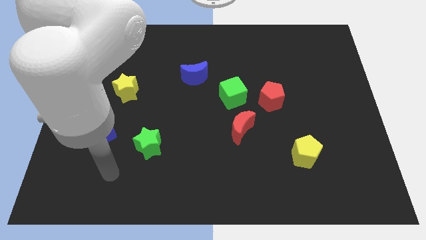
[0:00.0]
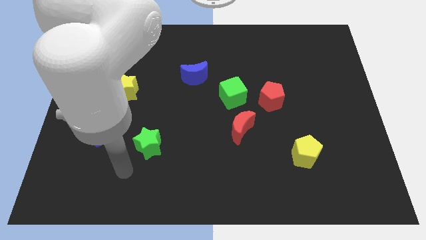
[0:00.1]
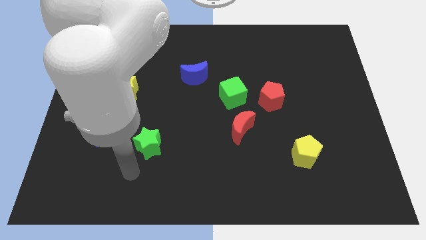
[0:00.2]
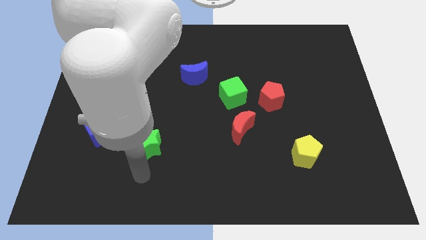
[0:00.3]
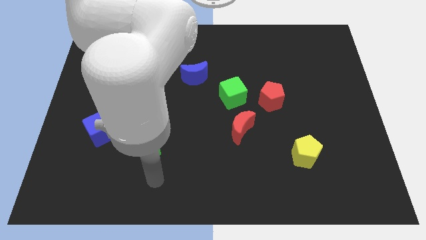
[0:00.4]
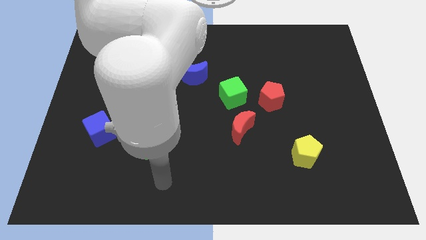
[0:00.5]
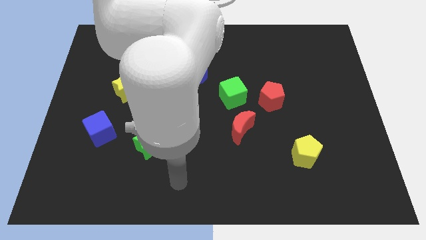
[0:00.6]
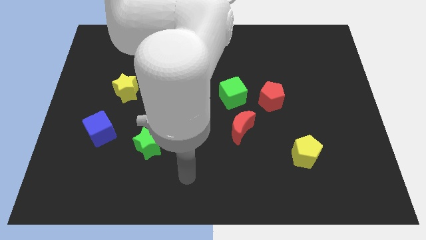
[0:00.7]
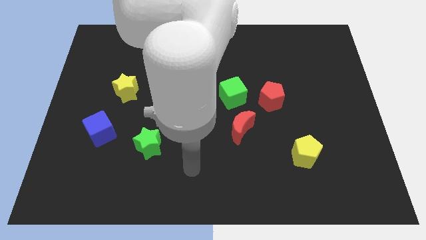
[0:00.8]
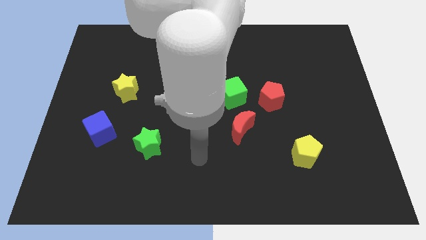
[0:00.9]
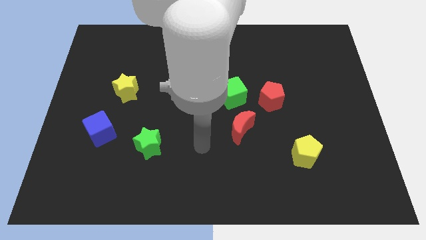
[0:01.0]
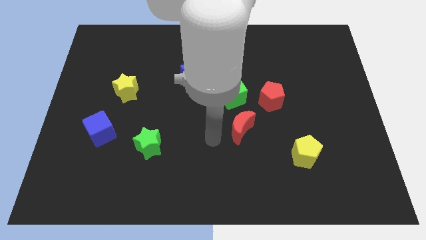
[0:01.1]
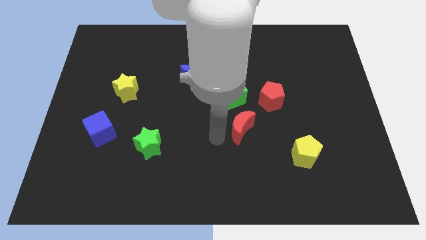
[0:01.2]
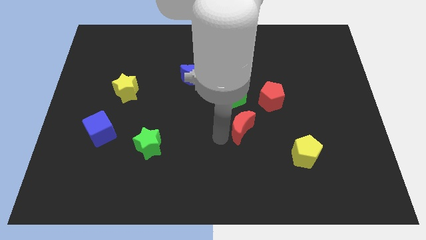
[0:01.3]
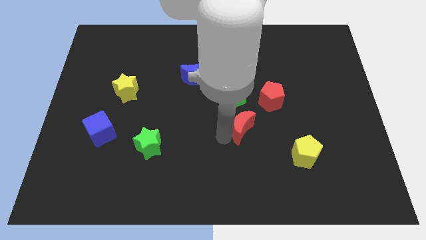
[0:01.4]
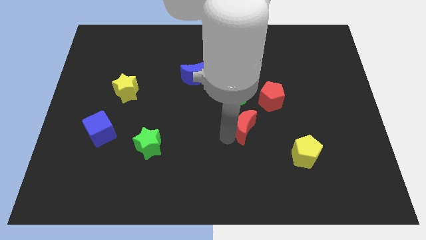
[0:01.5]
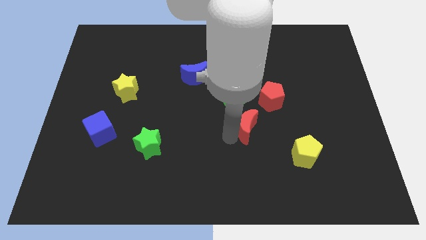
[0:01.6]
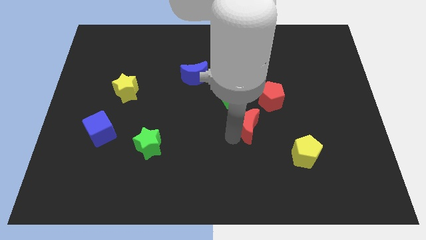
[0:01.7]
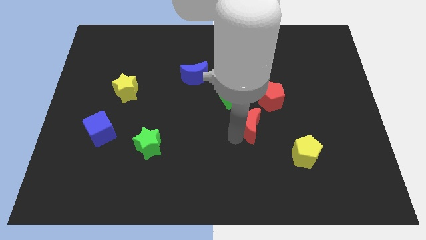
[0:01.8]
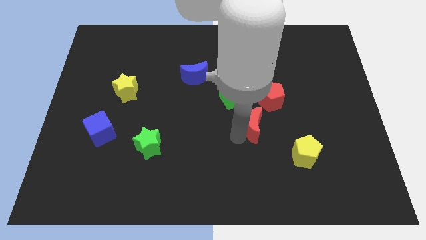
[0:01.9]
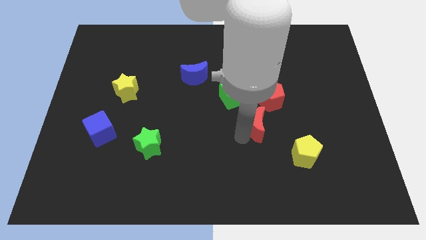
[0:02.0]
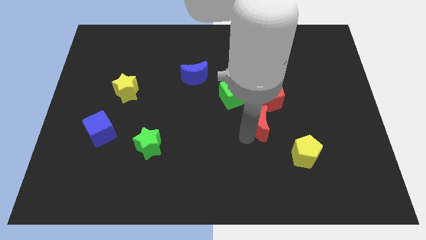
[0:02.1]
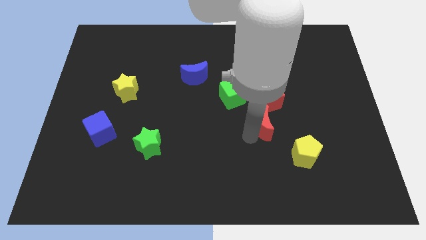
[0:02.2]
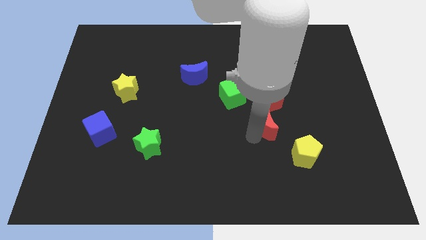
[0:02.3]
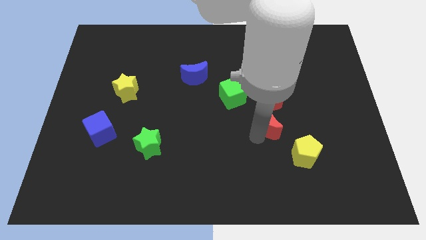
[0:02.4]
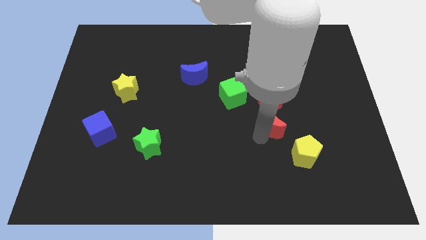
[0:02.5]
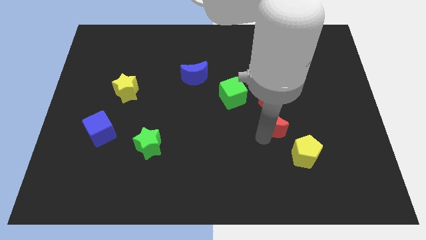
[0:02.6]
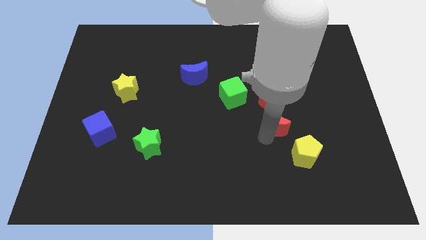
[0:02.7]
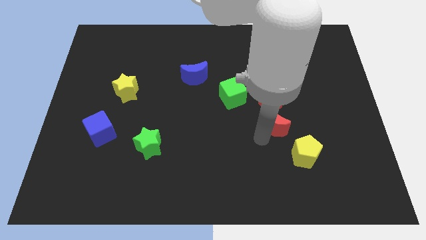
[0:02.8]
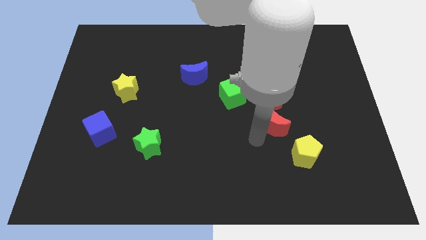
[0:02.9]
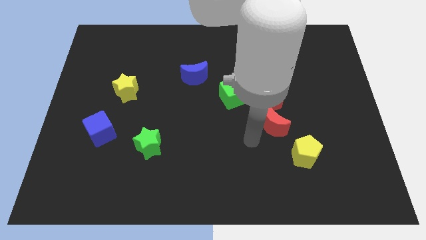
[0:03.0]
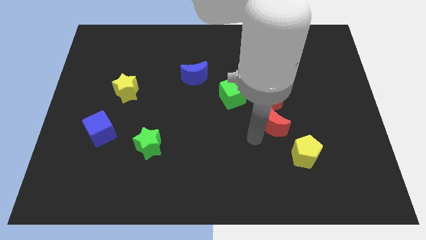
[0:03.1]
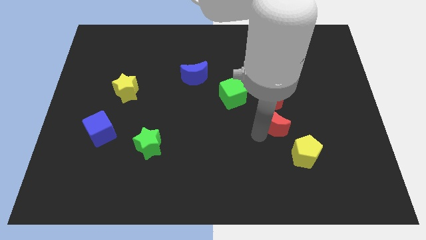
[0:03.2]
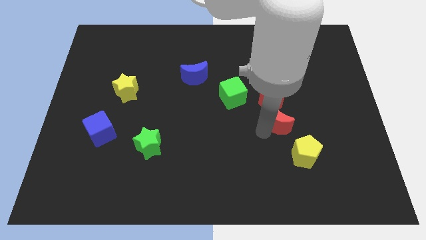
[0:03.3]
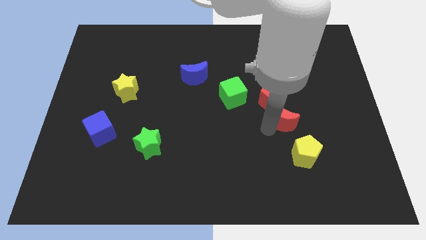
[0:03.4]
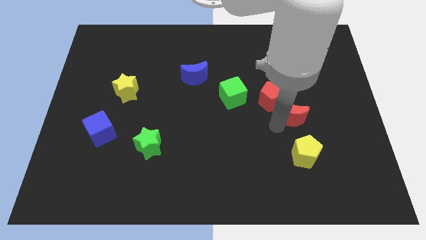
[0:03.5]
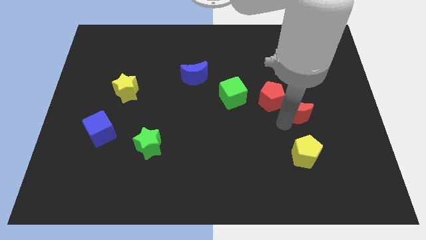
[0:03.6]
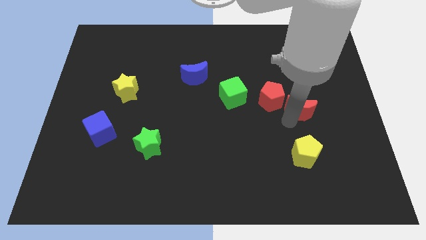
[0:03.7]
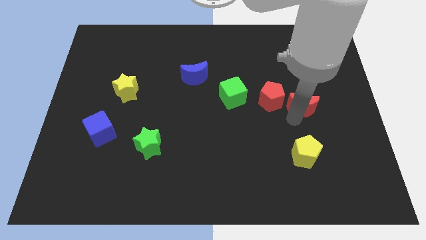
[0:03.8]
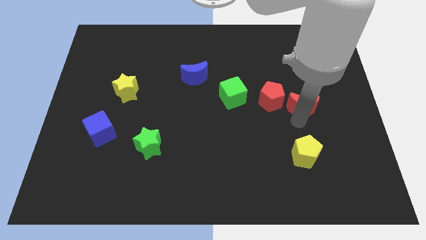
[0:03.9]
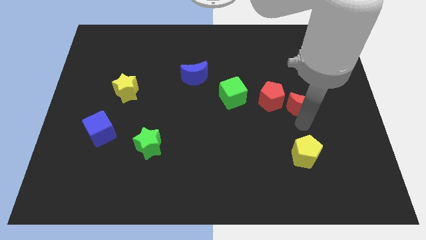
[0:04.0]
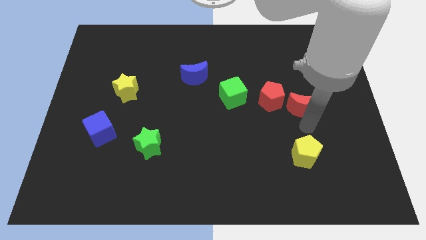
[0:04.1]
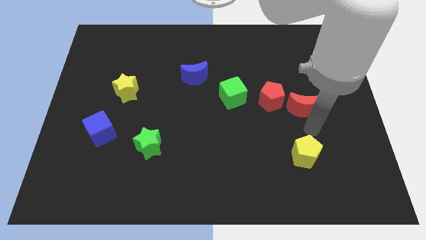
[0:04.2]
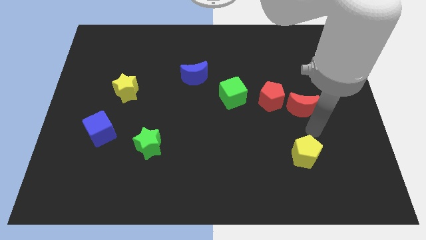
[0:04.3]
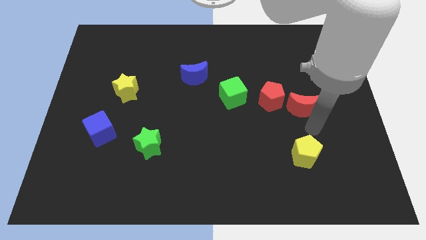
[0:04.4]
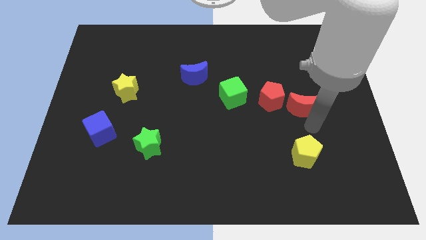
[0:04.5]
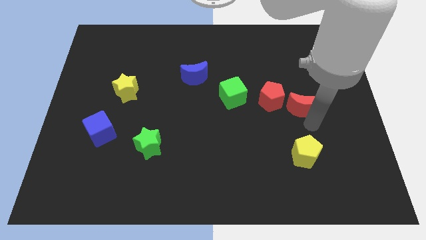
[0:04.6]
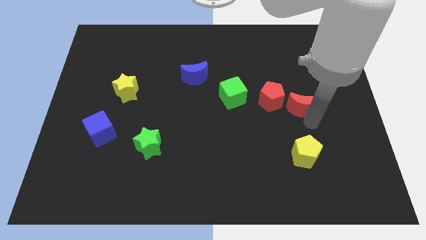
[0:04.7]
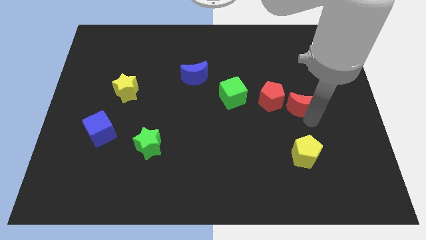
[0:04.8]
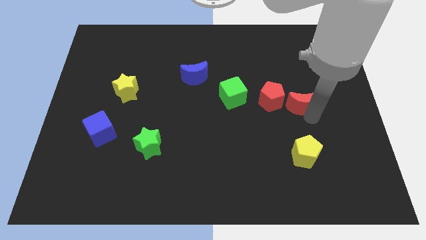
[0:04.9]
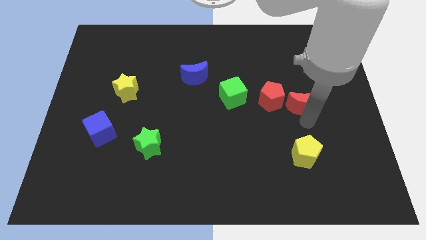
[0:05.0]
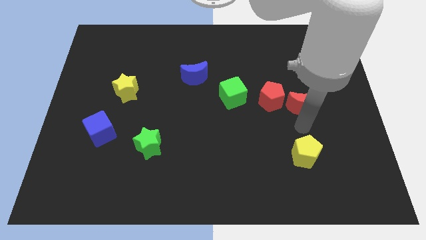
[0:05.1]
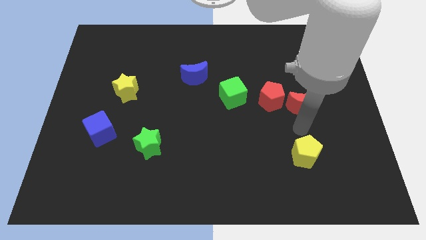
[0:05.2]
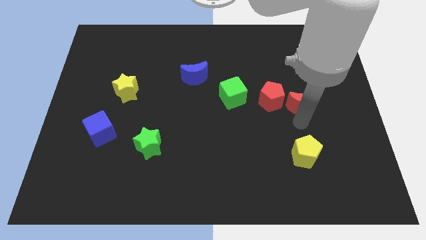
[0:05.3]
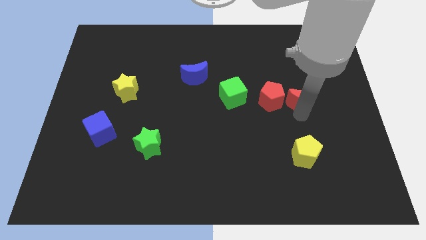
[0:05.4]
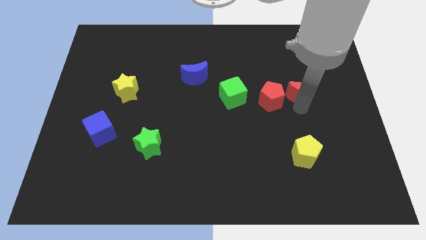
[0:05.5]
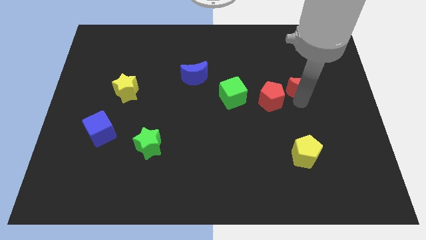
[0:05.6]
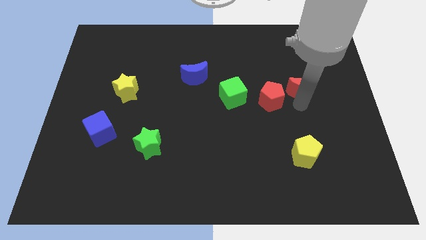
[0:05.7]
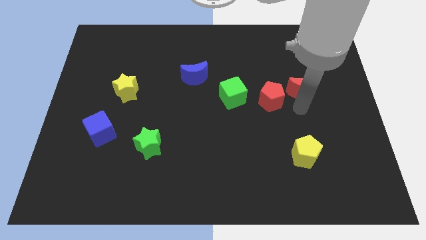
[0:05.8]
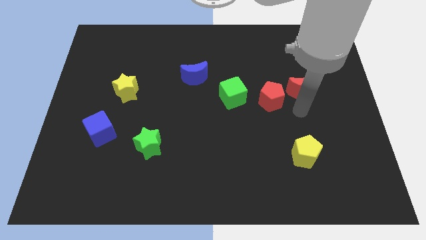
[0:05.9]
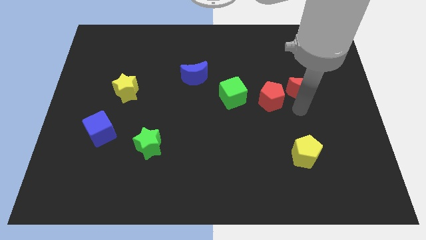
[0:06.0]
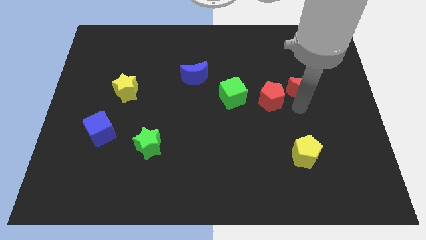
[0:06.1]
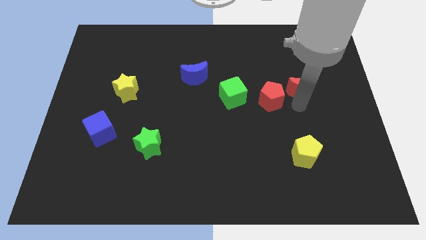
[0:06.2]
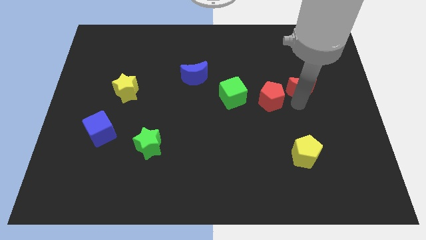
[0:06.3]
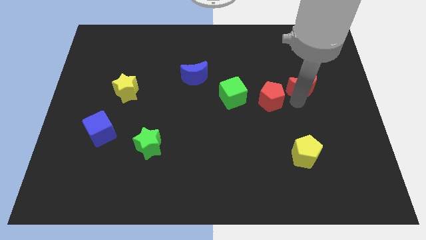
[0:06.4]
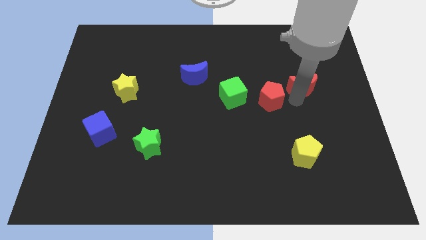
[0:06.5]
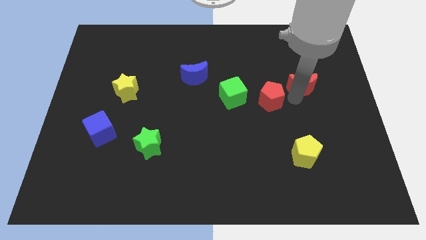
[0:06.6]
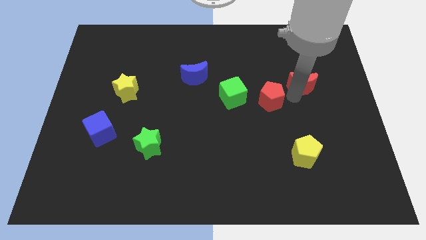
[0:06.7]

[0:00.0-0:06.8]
move the red moon up and to the right

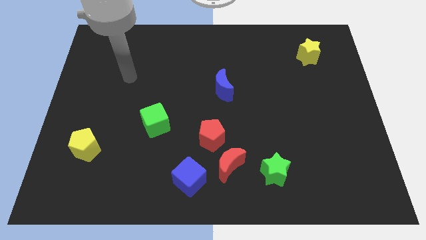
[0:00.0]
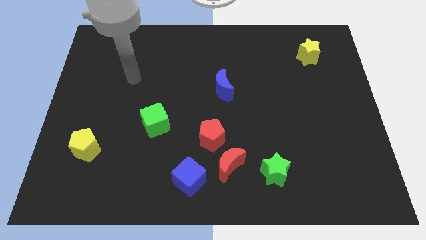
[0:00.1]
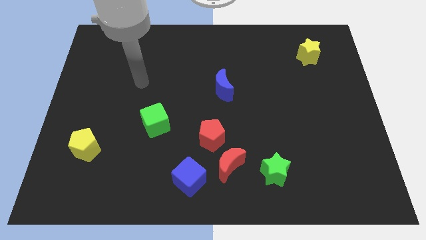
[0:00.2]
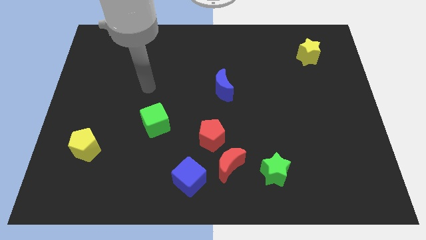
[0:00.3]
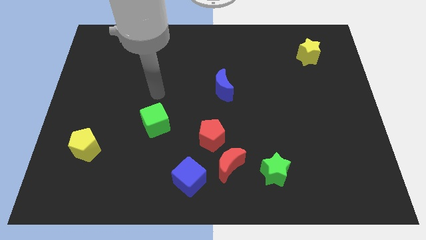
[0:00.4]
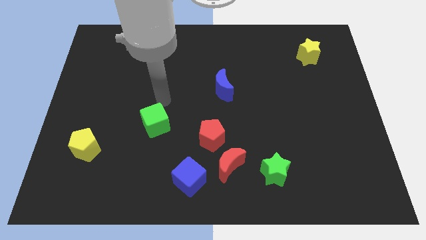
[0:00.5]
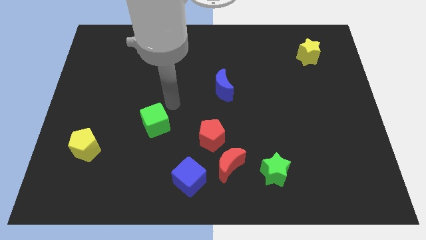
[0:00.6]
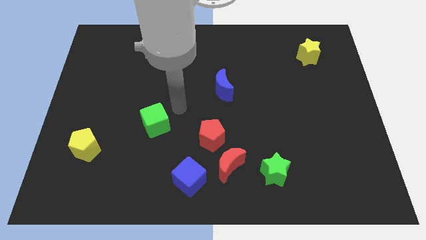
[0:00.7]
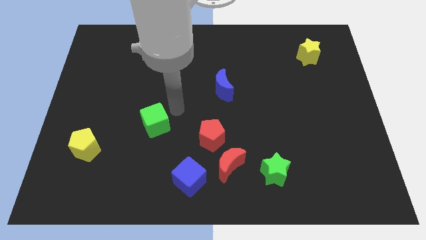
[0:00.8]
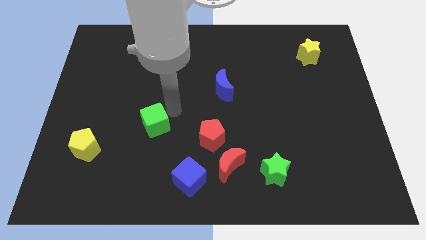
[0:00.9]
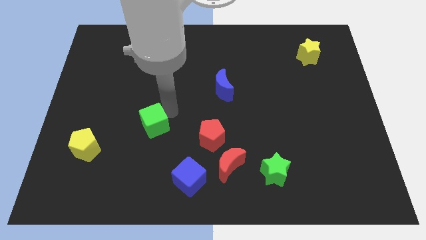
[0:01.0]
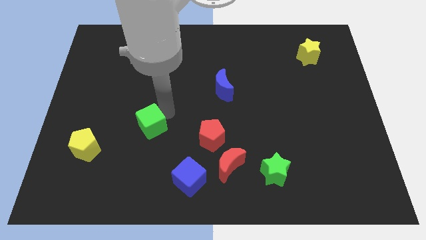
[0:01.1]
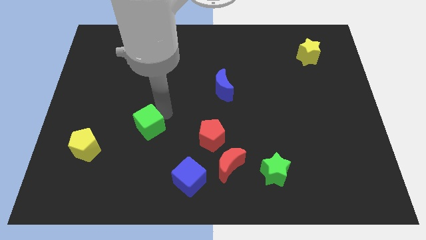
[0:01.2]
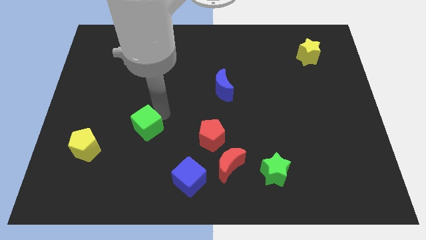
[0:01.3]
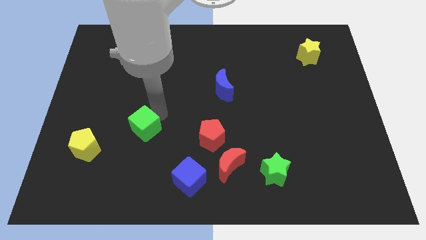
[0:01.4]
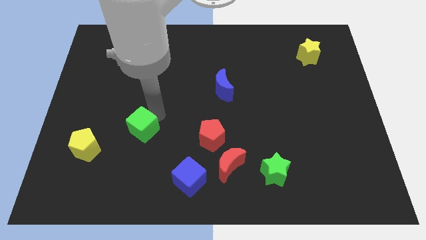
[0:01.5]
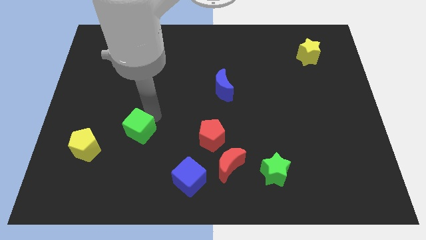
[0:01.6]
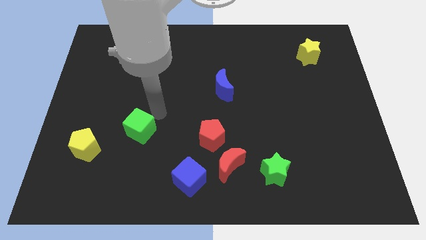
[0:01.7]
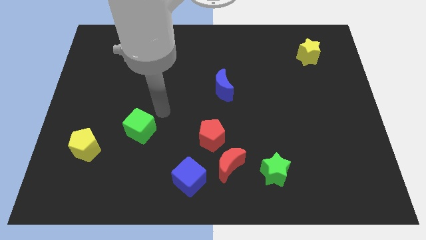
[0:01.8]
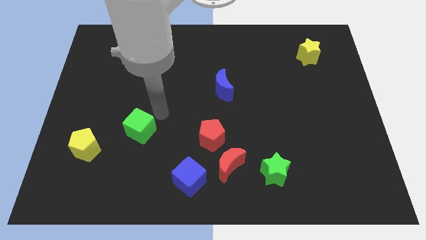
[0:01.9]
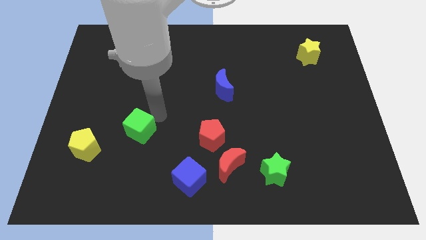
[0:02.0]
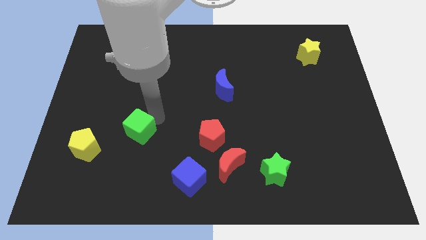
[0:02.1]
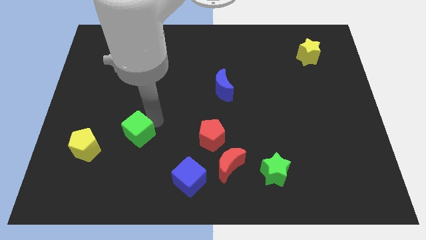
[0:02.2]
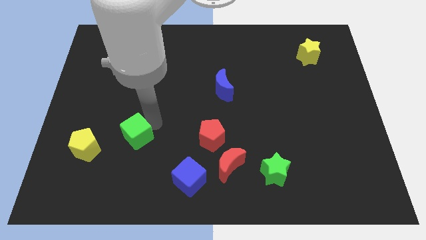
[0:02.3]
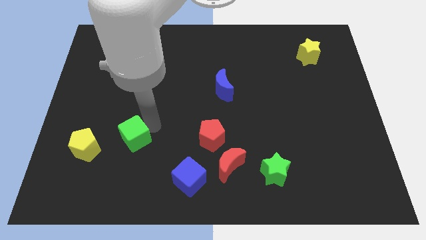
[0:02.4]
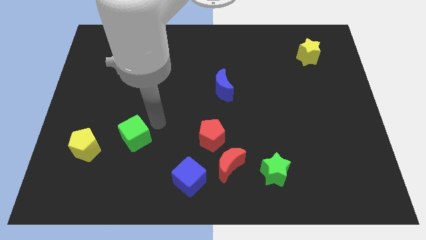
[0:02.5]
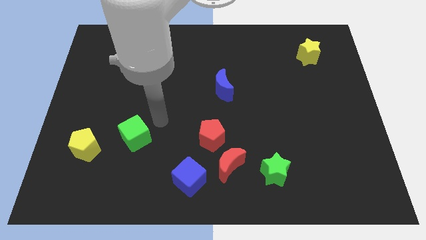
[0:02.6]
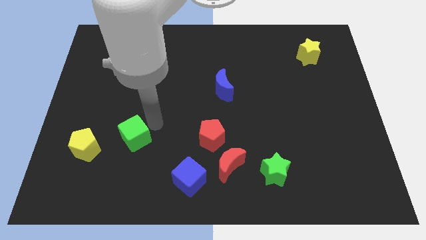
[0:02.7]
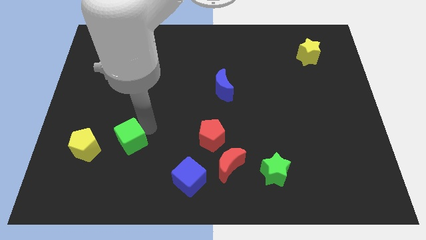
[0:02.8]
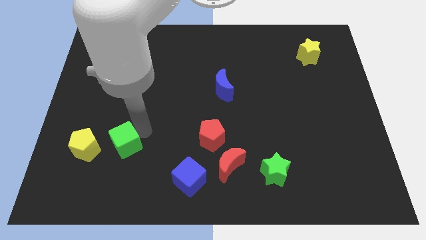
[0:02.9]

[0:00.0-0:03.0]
slightly move the green cube downwards and left diagonally
